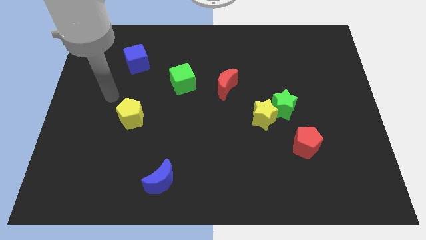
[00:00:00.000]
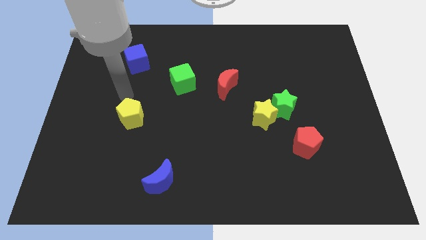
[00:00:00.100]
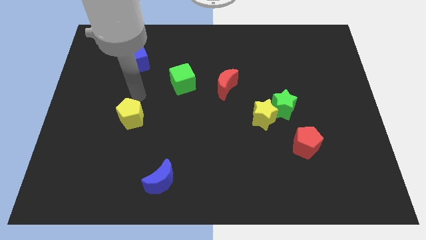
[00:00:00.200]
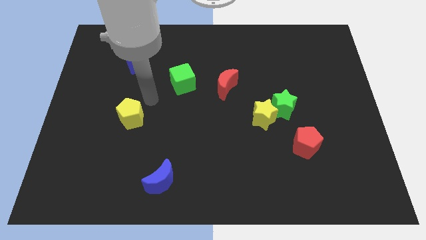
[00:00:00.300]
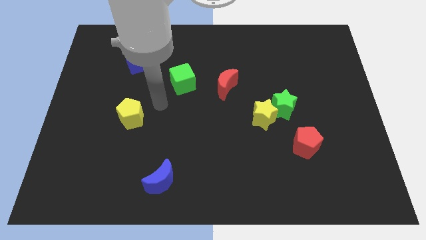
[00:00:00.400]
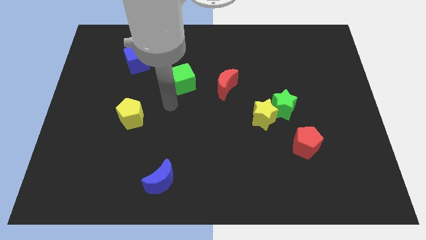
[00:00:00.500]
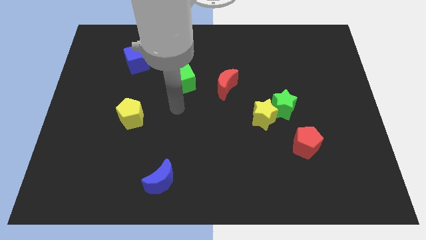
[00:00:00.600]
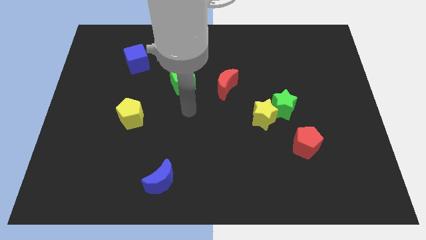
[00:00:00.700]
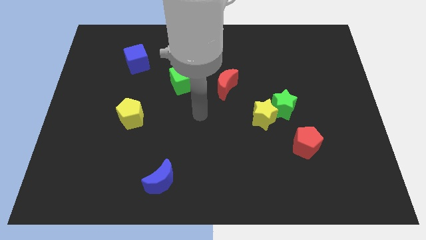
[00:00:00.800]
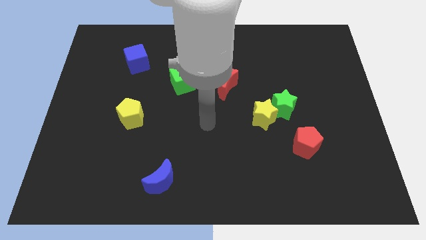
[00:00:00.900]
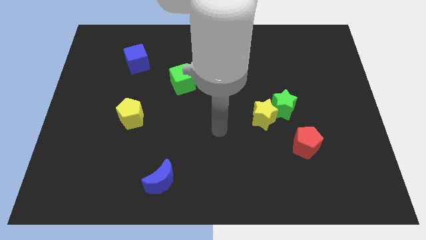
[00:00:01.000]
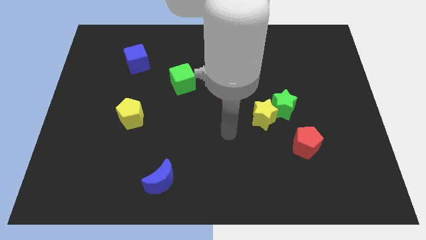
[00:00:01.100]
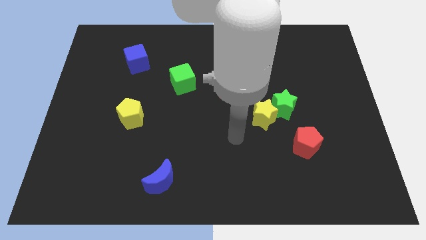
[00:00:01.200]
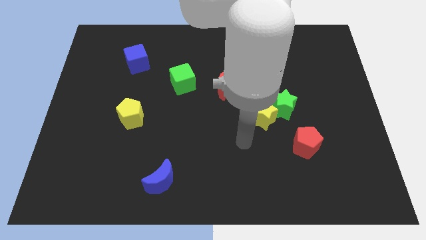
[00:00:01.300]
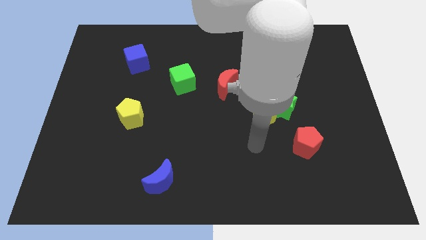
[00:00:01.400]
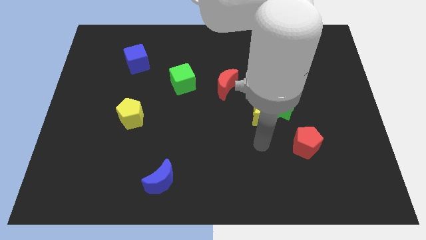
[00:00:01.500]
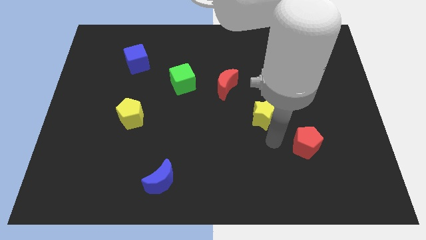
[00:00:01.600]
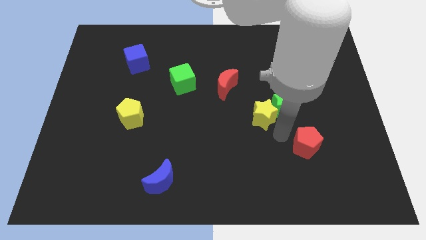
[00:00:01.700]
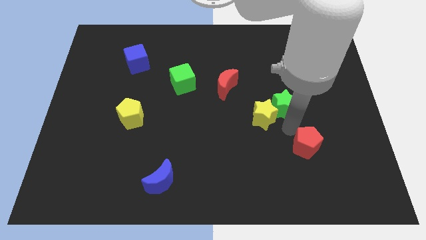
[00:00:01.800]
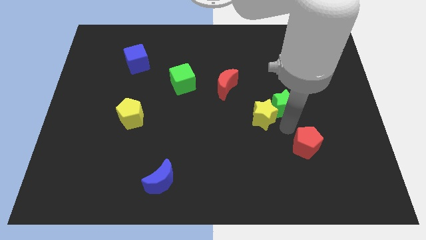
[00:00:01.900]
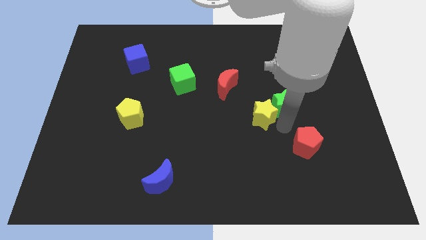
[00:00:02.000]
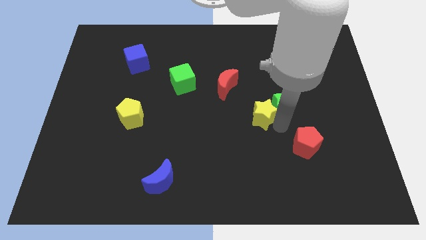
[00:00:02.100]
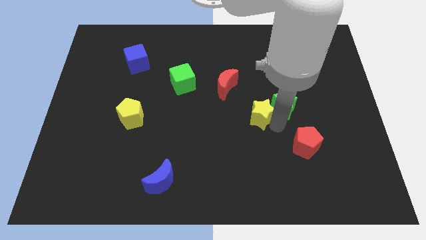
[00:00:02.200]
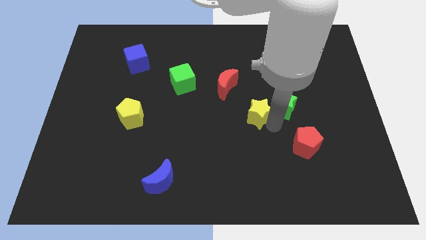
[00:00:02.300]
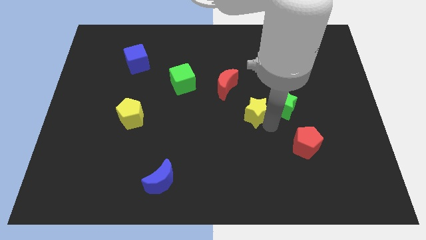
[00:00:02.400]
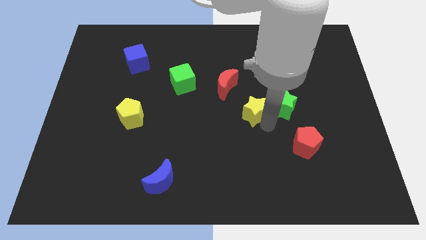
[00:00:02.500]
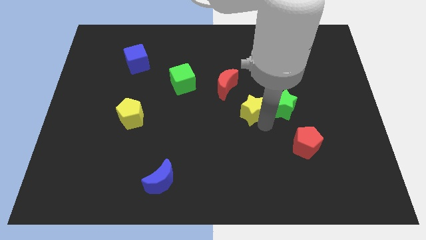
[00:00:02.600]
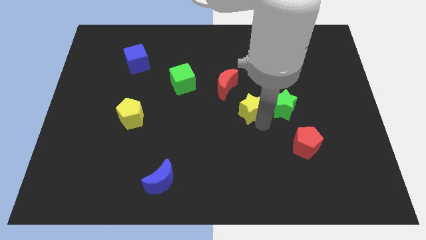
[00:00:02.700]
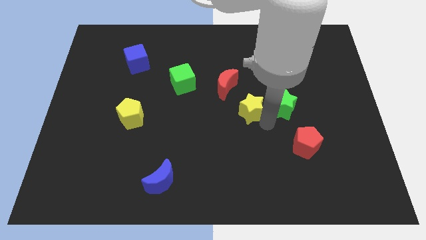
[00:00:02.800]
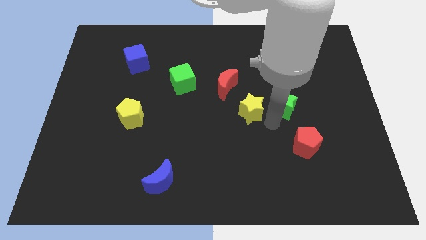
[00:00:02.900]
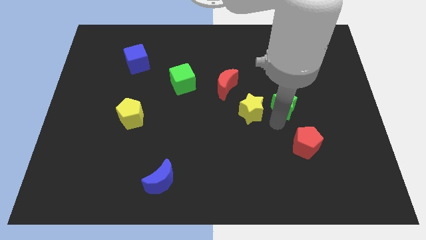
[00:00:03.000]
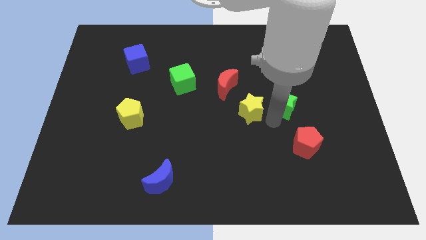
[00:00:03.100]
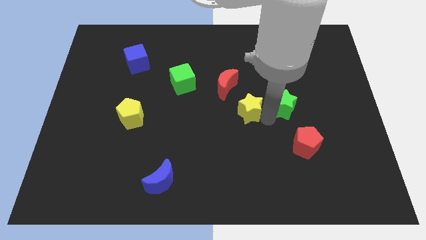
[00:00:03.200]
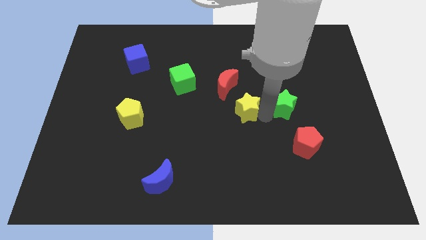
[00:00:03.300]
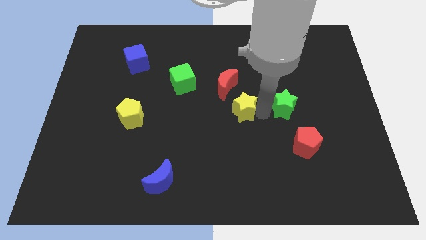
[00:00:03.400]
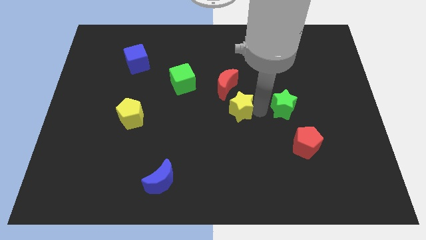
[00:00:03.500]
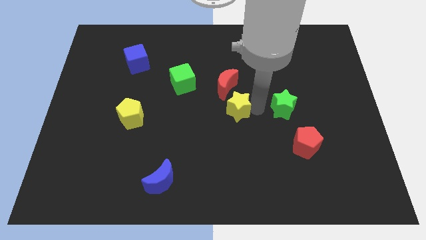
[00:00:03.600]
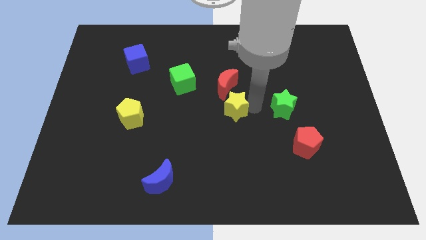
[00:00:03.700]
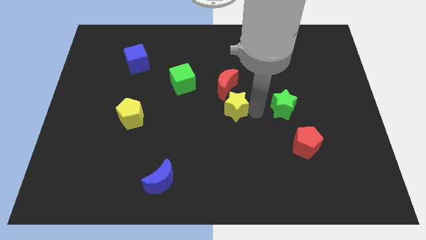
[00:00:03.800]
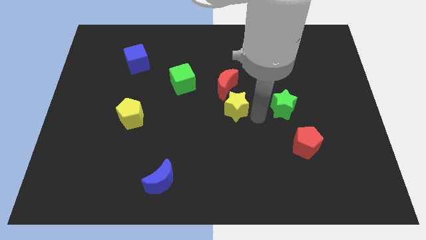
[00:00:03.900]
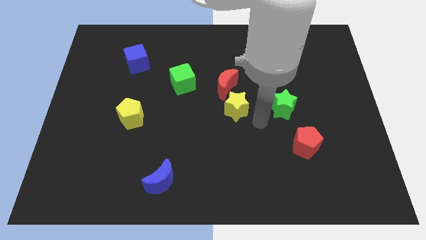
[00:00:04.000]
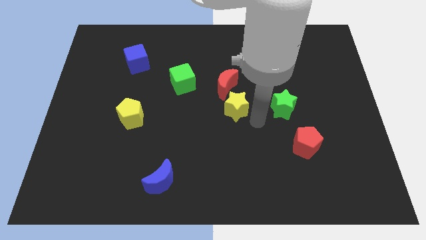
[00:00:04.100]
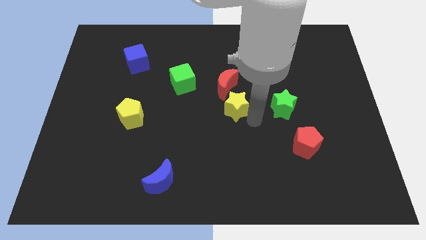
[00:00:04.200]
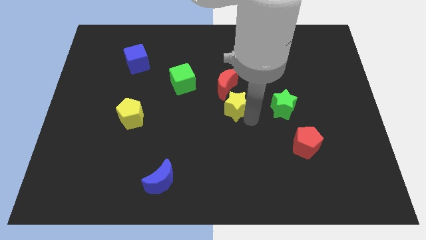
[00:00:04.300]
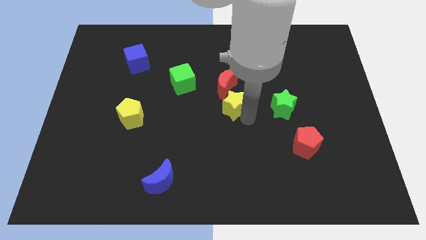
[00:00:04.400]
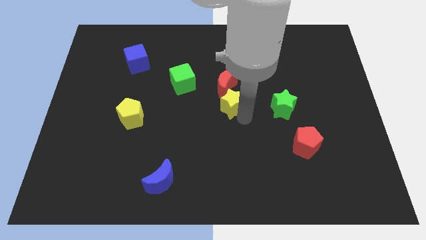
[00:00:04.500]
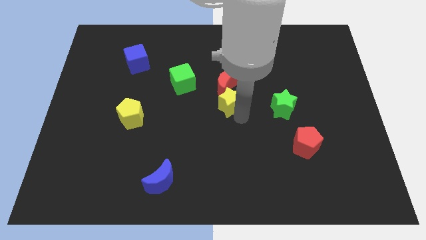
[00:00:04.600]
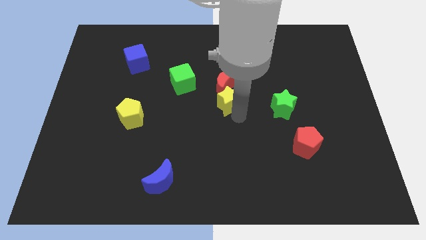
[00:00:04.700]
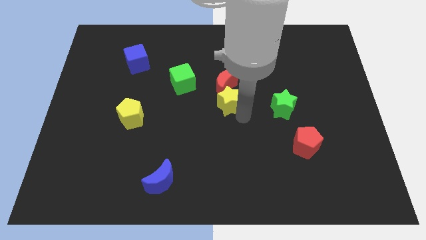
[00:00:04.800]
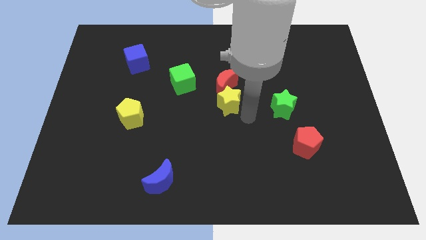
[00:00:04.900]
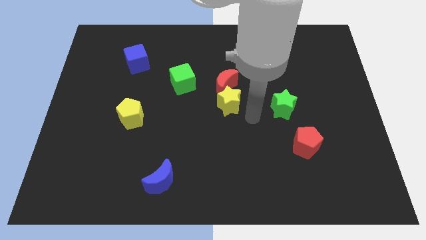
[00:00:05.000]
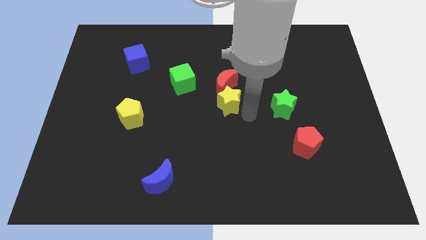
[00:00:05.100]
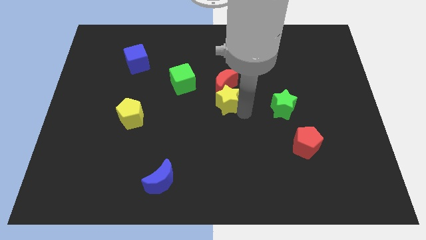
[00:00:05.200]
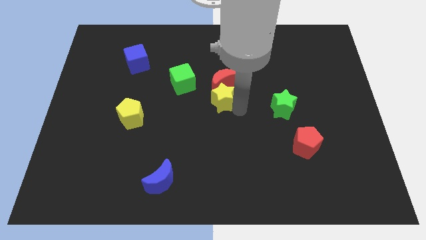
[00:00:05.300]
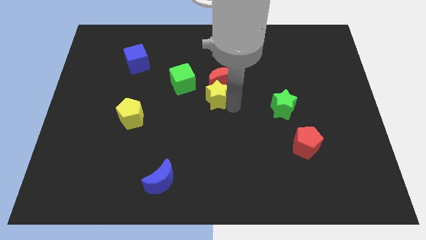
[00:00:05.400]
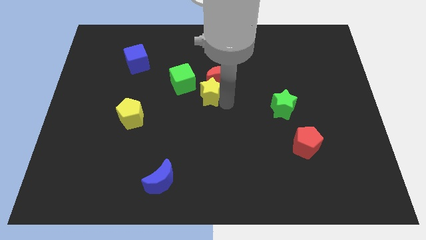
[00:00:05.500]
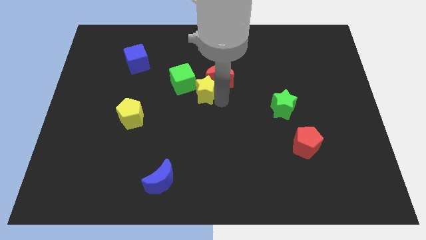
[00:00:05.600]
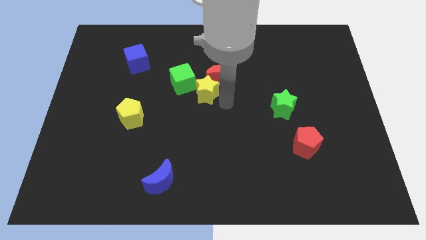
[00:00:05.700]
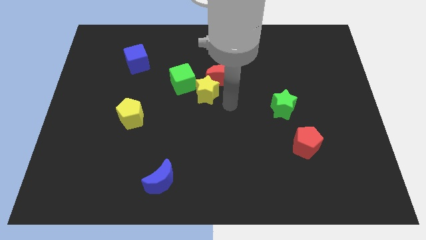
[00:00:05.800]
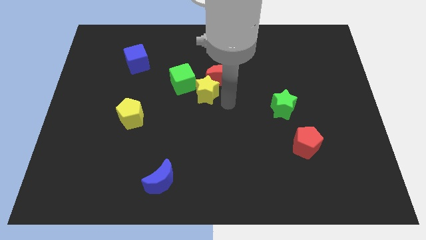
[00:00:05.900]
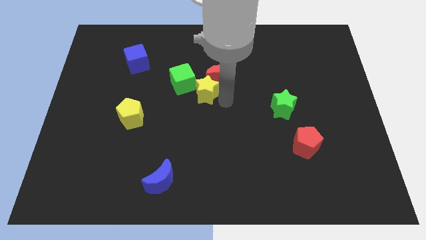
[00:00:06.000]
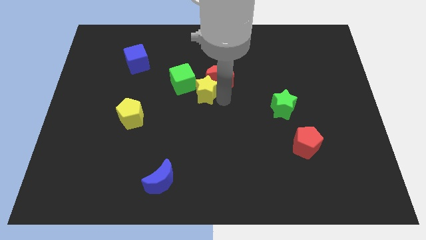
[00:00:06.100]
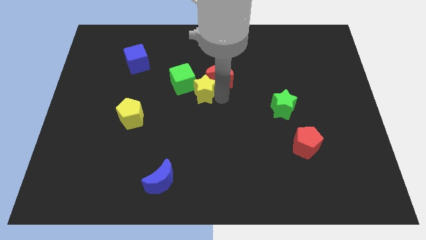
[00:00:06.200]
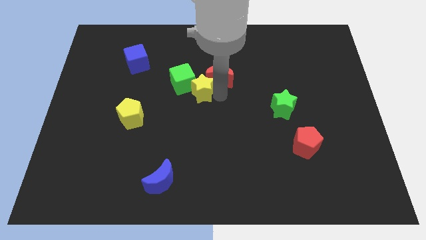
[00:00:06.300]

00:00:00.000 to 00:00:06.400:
slide the yellow star to the green cube

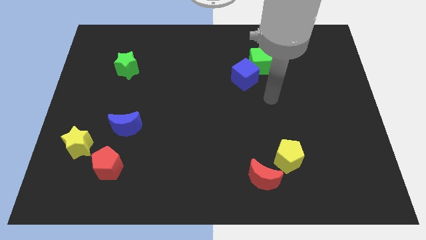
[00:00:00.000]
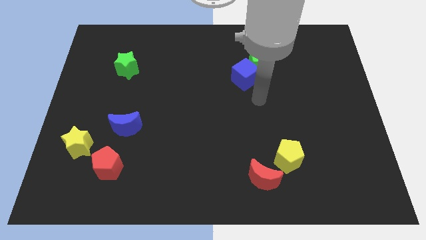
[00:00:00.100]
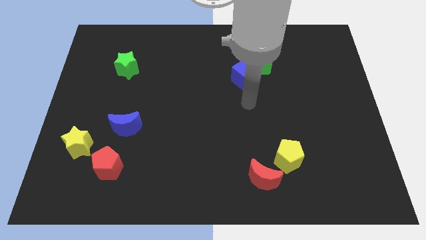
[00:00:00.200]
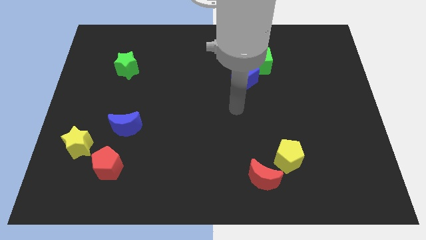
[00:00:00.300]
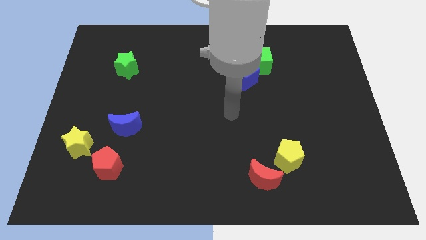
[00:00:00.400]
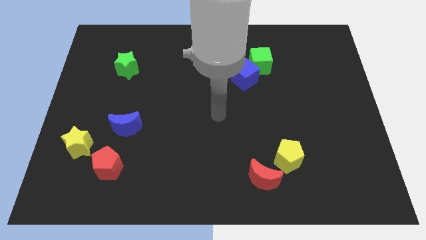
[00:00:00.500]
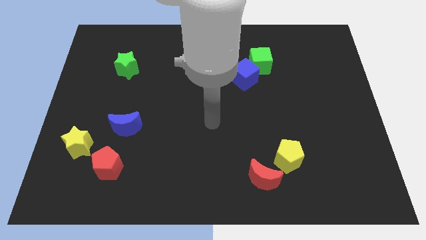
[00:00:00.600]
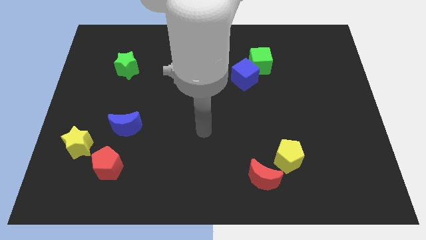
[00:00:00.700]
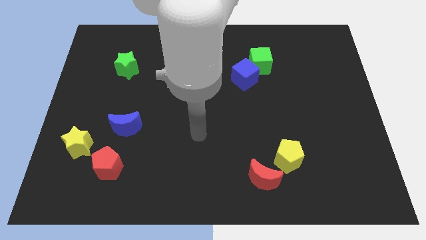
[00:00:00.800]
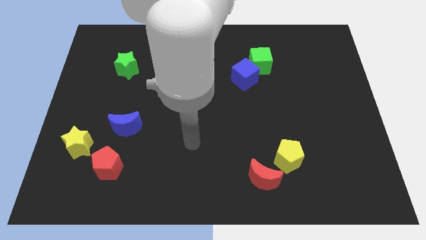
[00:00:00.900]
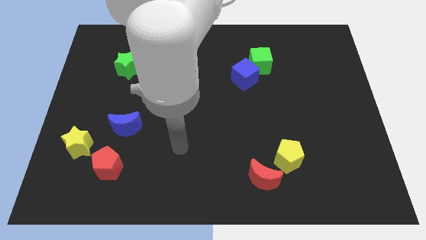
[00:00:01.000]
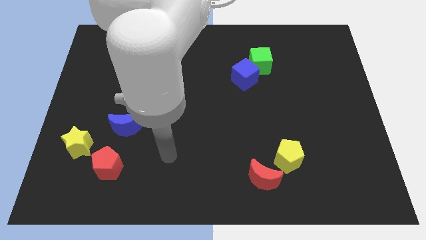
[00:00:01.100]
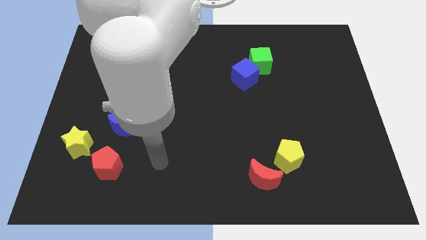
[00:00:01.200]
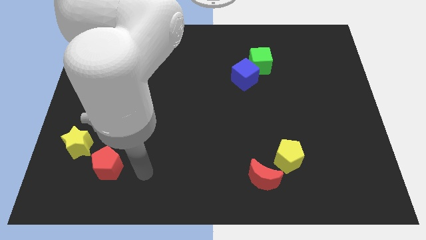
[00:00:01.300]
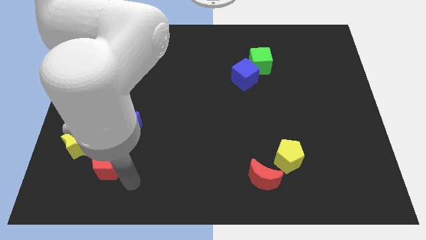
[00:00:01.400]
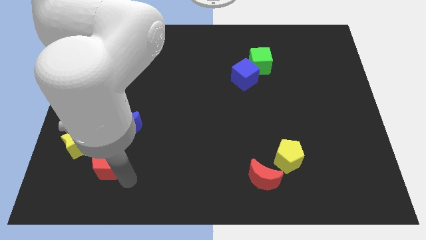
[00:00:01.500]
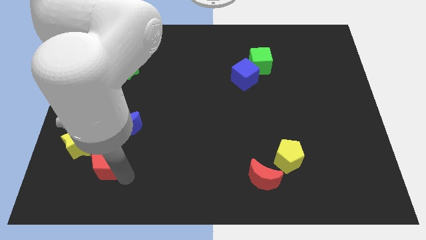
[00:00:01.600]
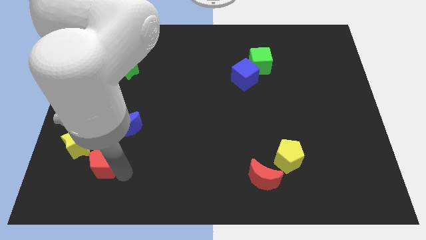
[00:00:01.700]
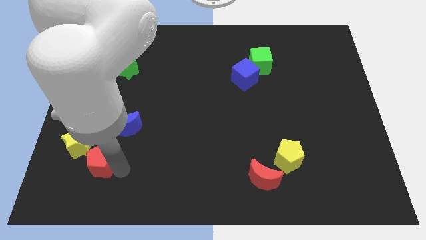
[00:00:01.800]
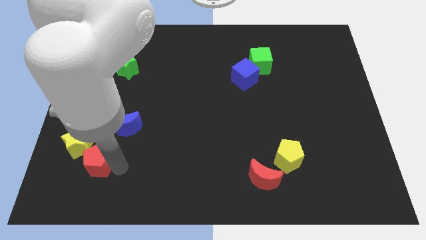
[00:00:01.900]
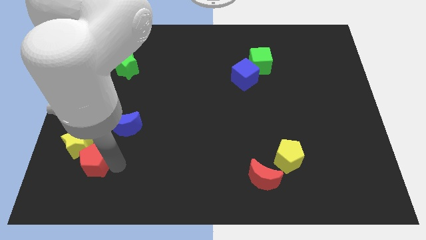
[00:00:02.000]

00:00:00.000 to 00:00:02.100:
put the red pentagon to the yellow star
